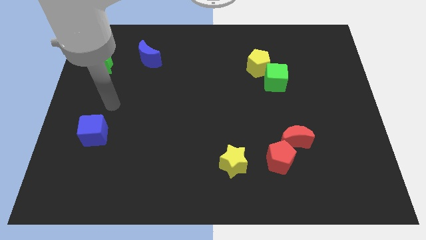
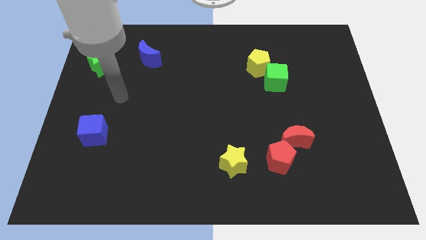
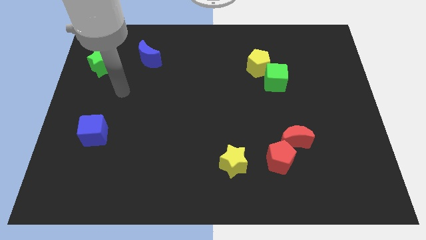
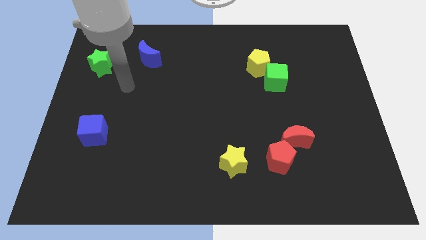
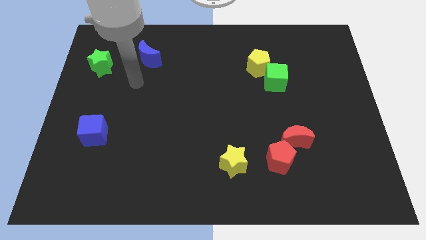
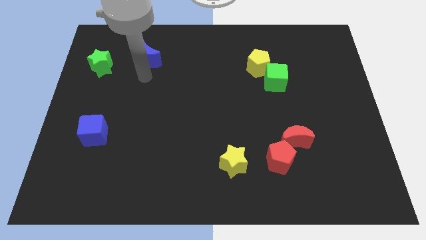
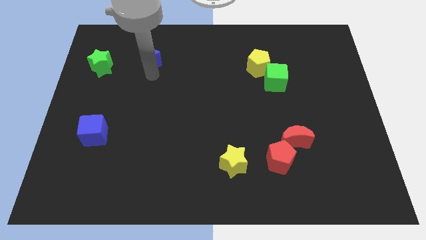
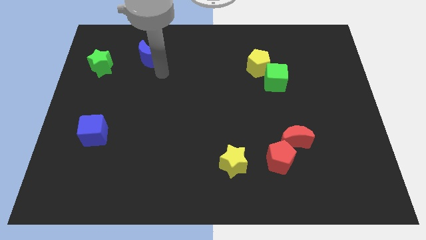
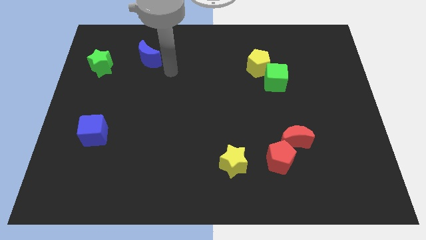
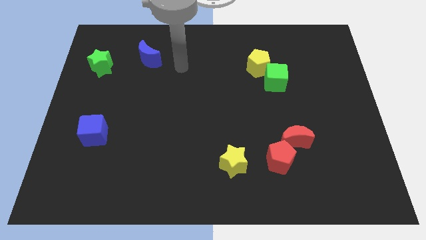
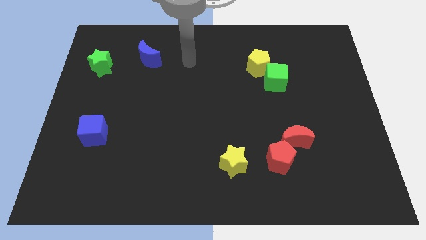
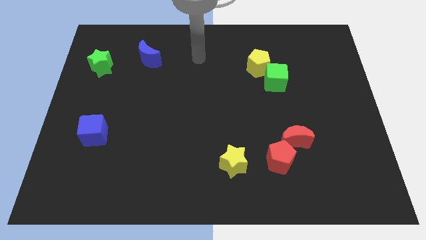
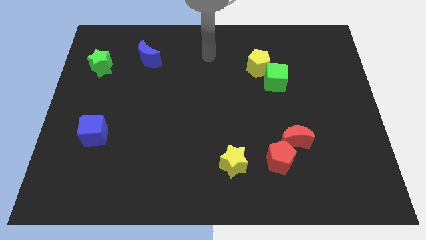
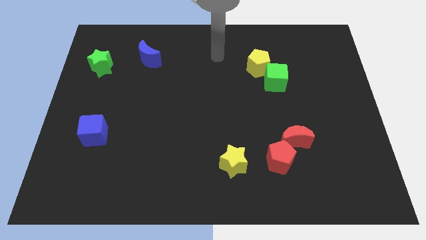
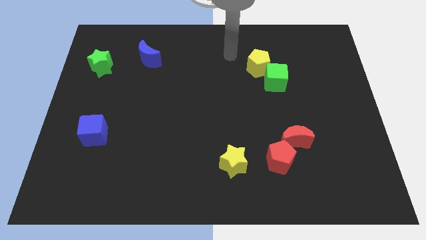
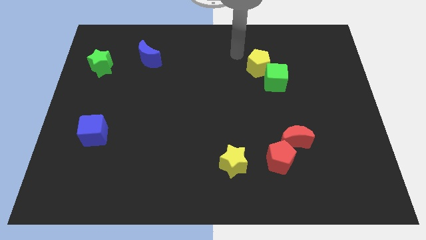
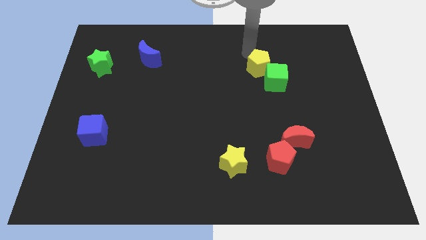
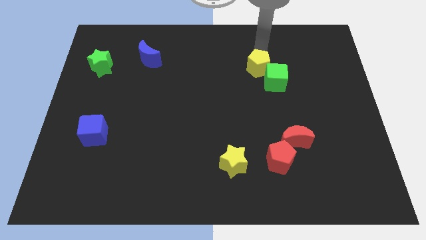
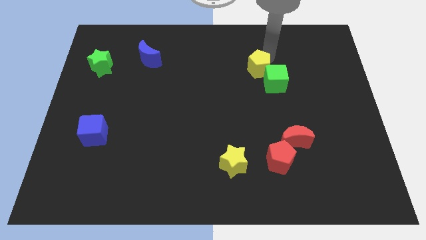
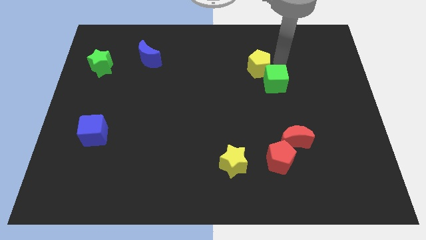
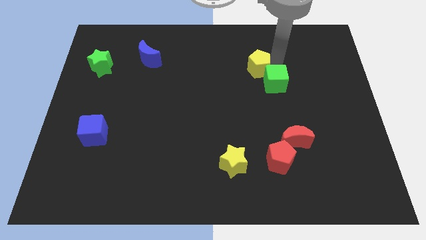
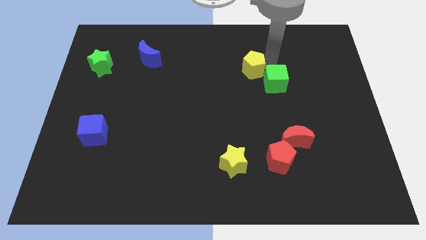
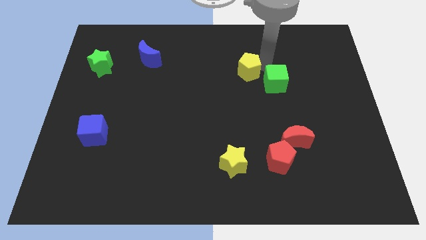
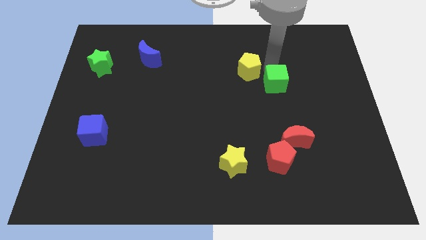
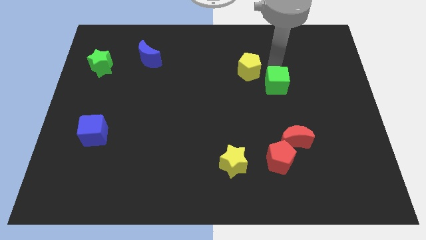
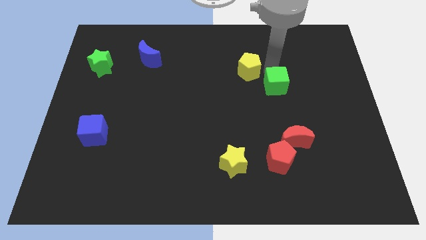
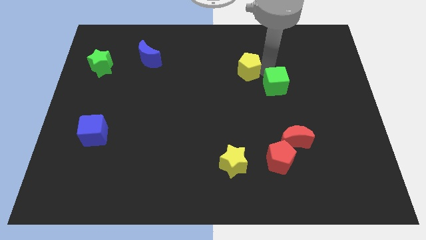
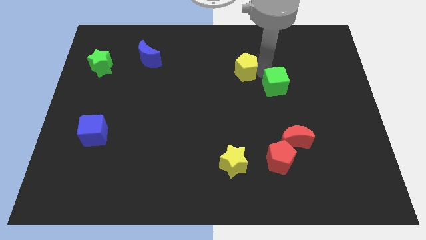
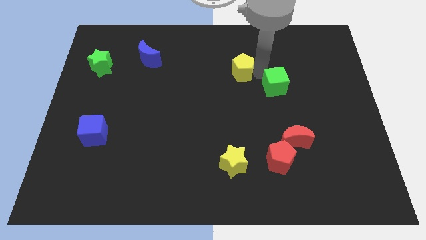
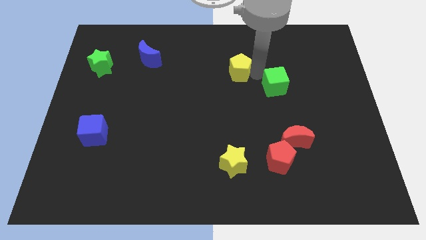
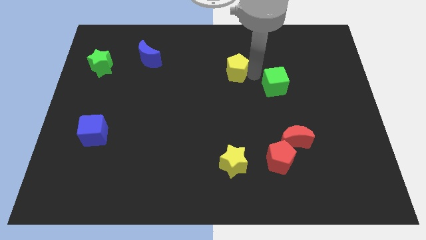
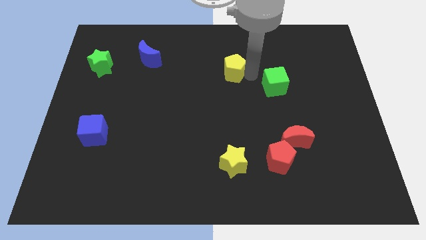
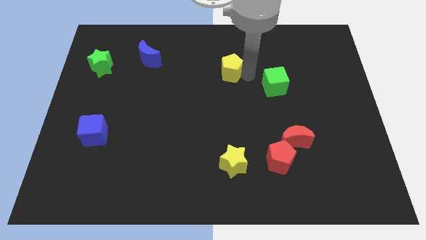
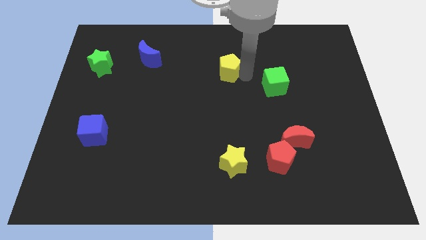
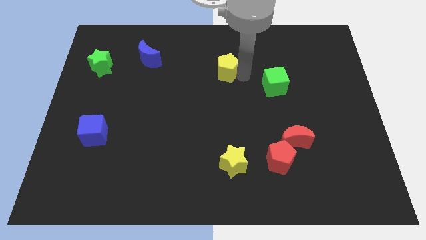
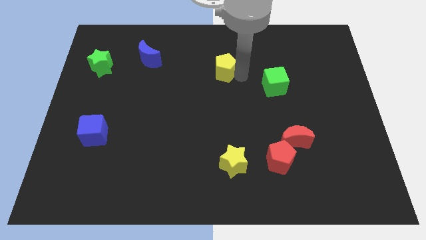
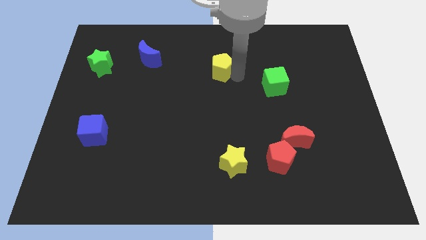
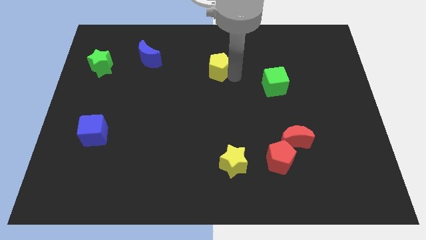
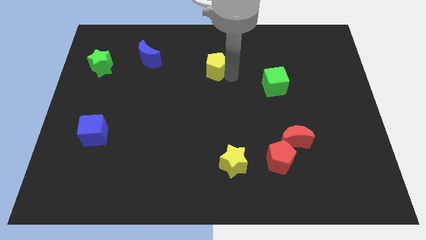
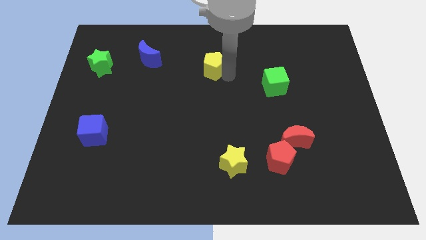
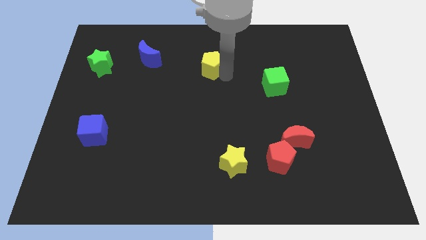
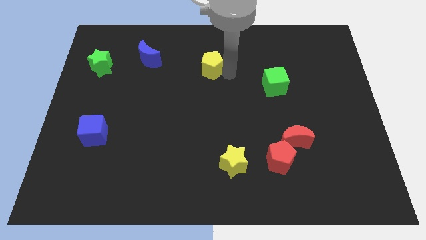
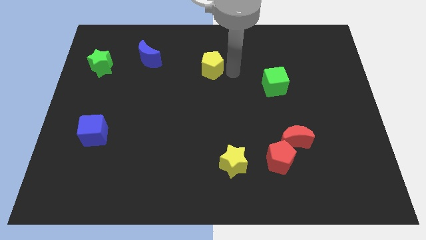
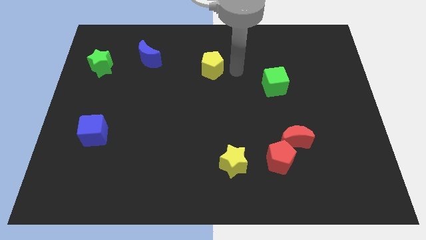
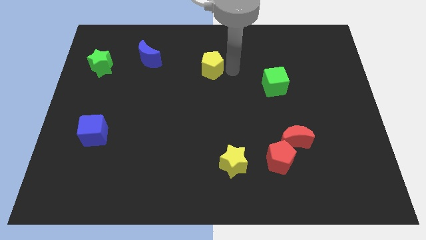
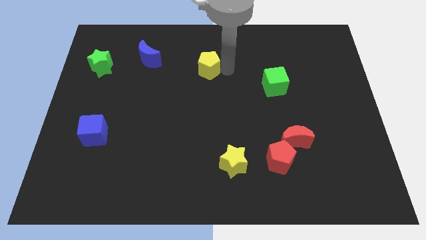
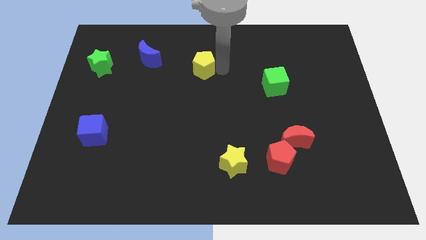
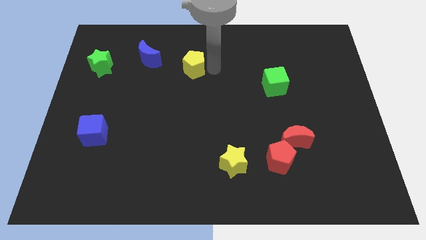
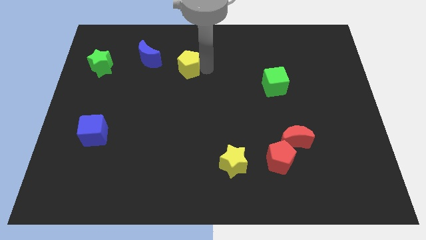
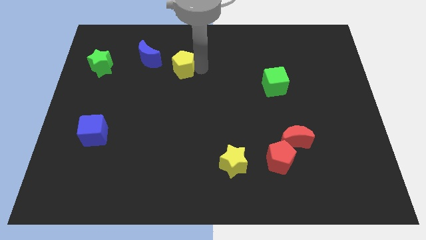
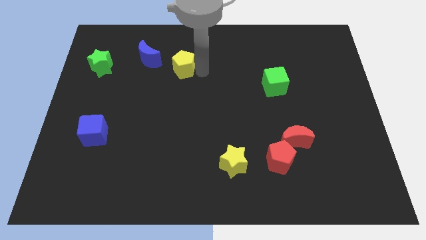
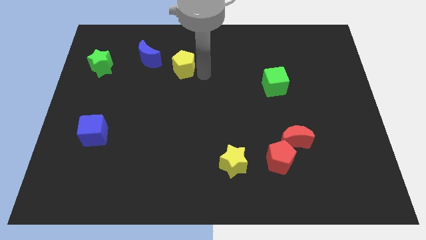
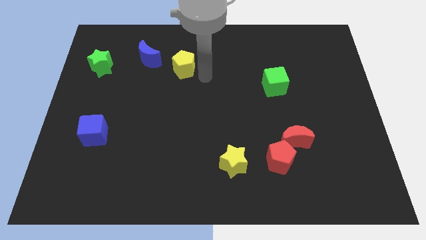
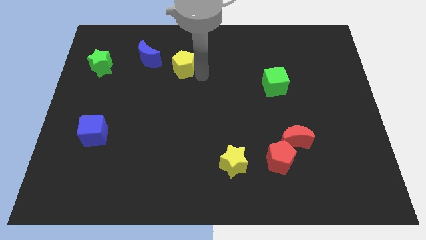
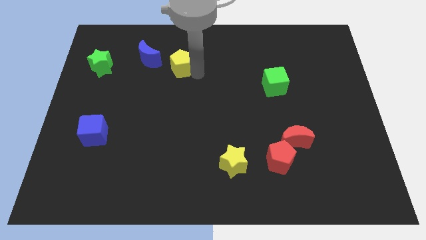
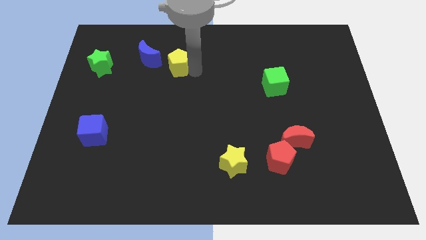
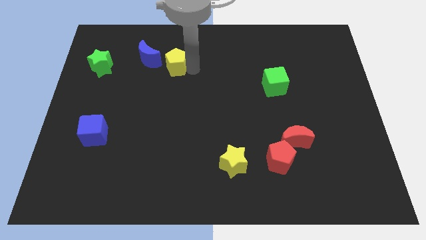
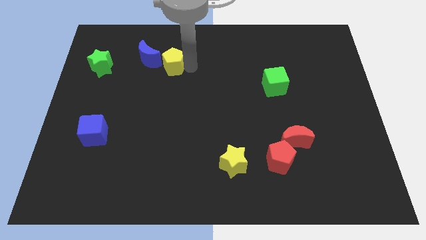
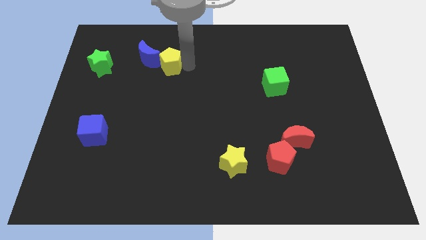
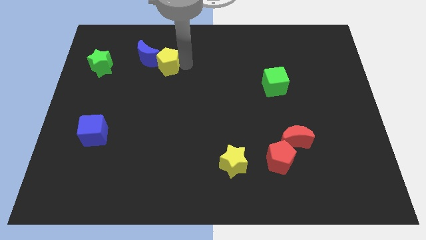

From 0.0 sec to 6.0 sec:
push the yellow pentagon towards the blue moon

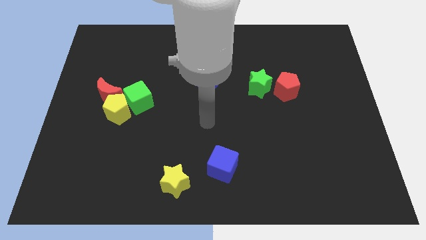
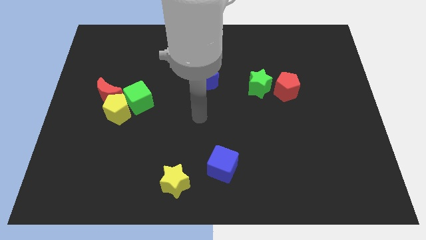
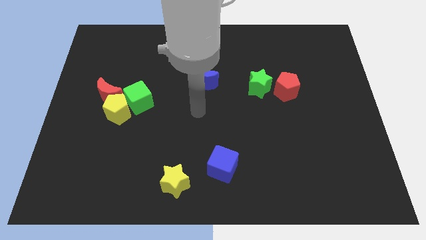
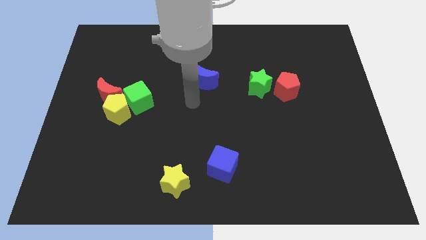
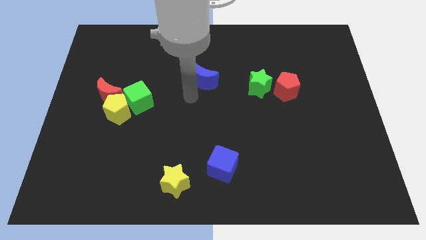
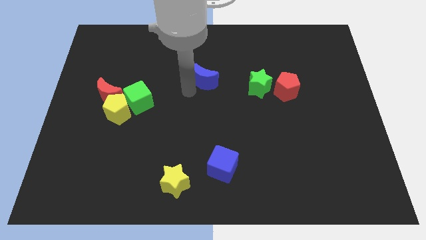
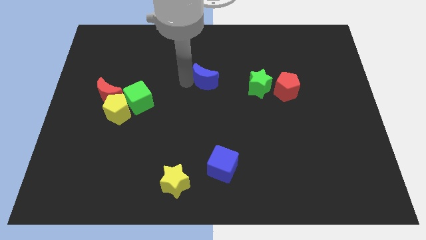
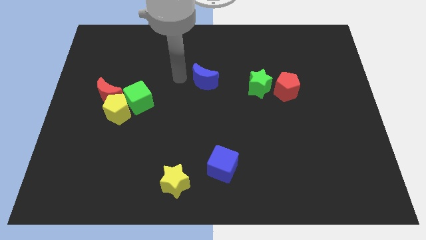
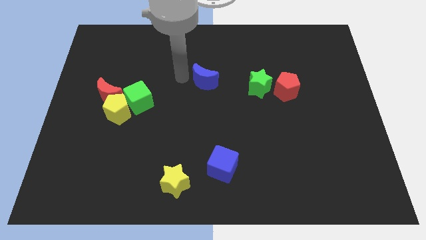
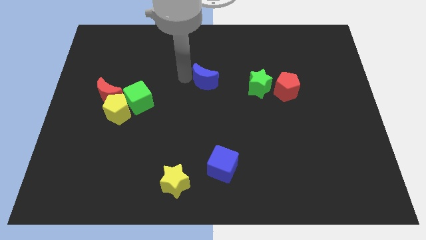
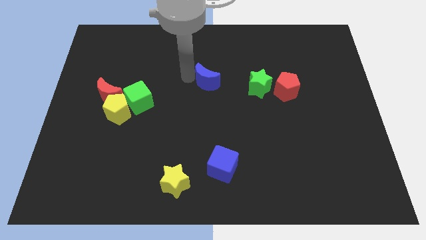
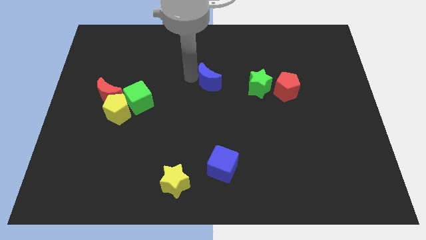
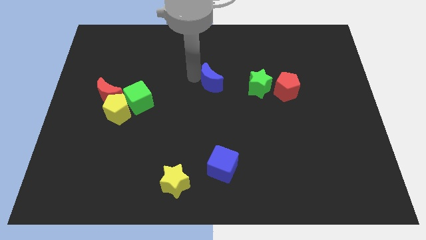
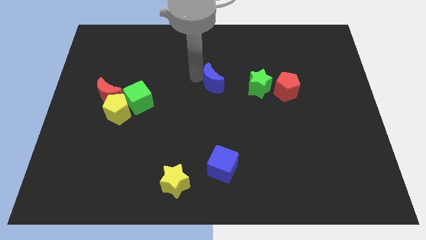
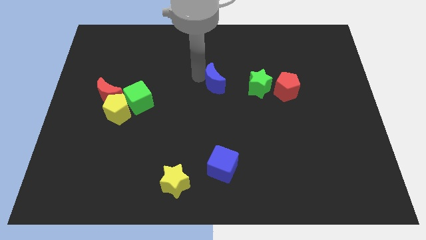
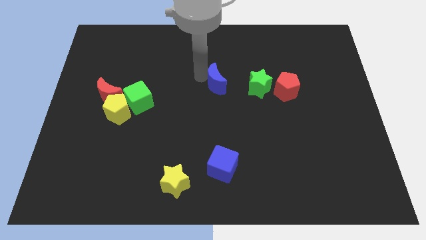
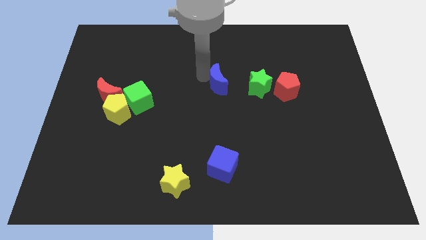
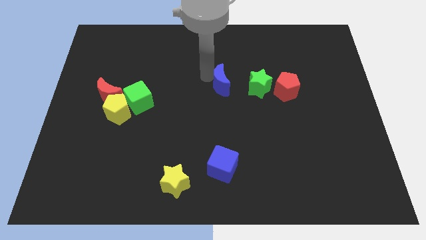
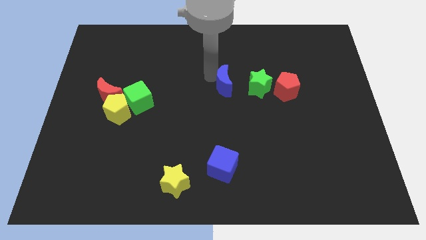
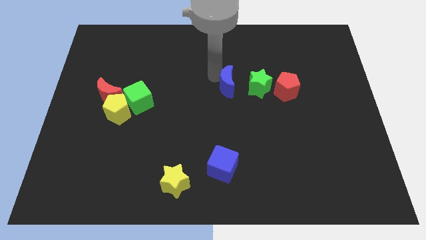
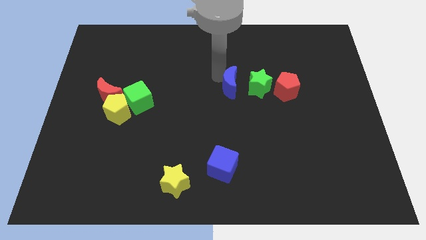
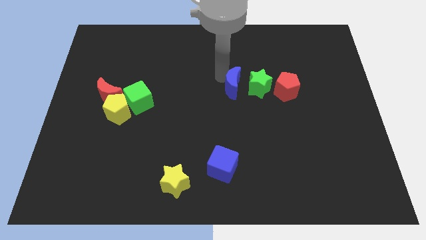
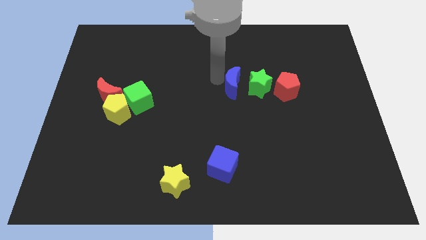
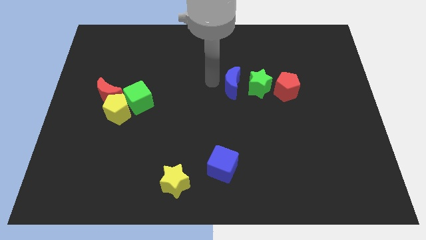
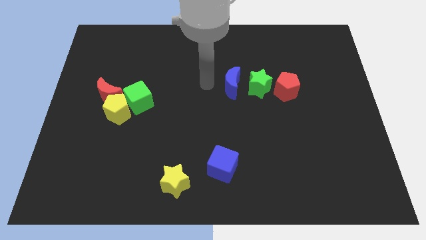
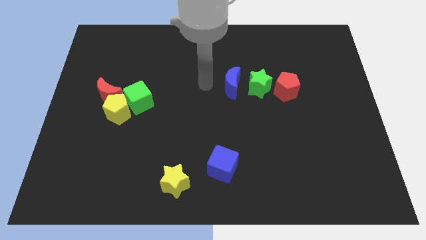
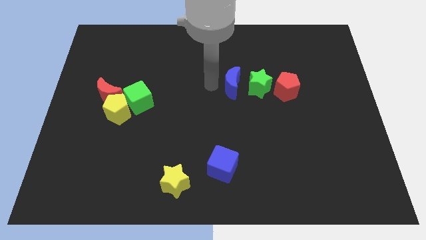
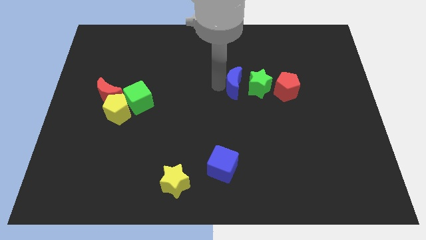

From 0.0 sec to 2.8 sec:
push the blue moon next to the green star
